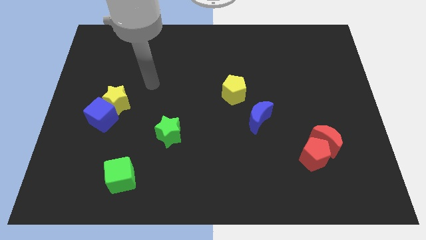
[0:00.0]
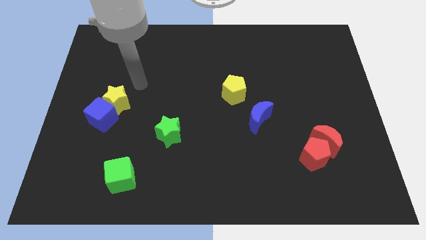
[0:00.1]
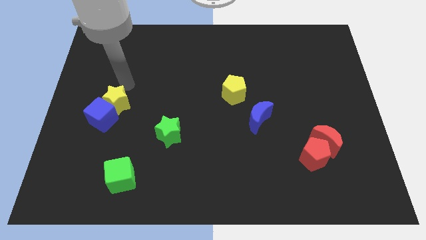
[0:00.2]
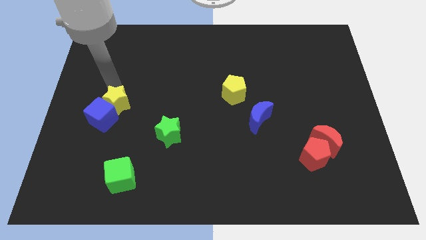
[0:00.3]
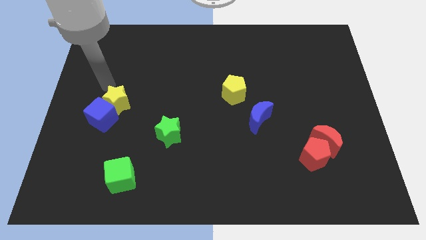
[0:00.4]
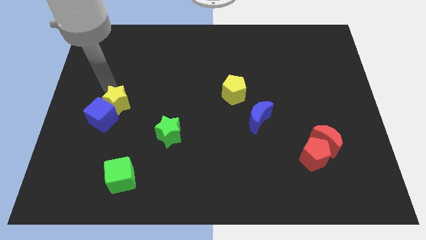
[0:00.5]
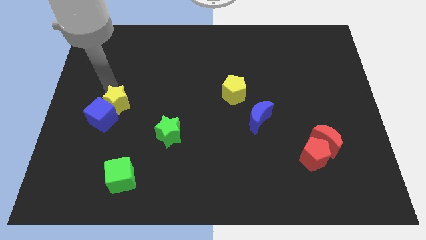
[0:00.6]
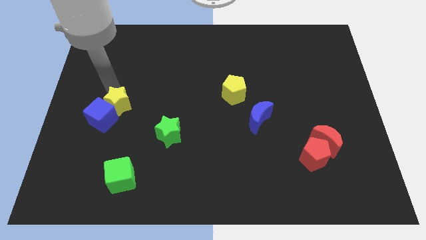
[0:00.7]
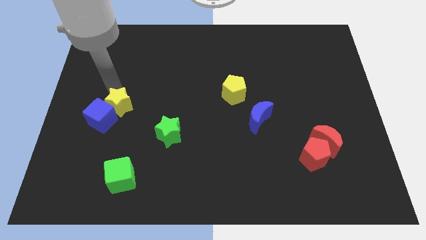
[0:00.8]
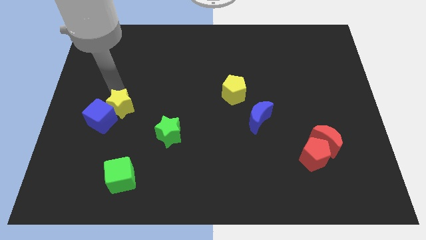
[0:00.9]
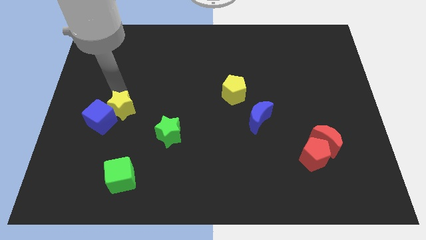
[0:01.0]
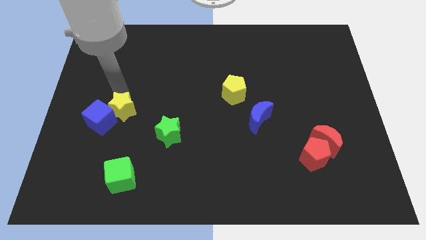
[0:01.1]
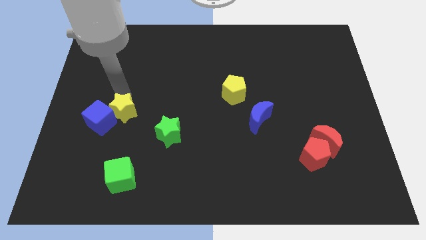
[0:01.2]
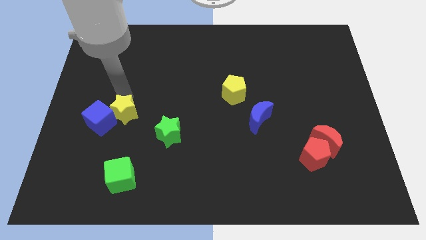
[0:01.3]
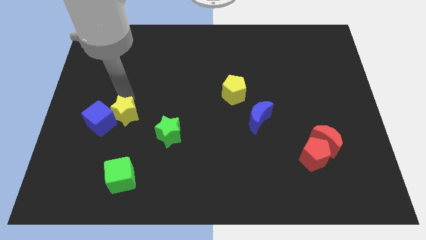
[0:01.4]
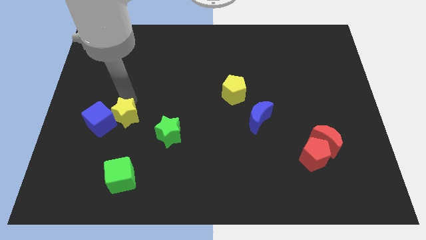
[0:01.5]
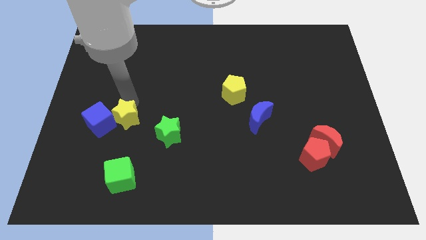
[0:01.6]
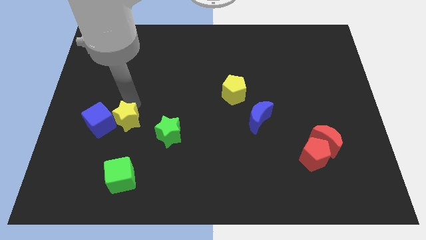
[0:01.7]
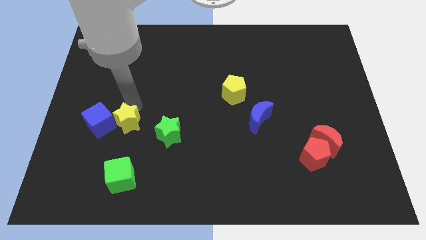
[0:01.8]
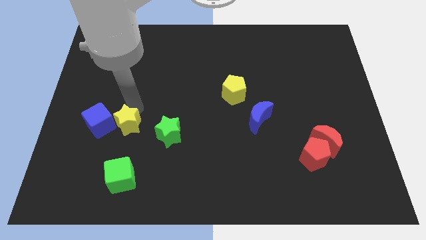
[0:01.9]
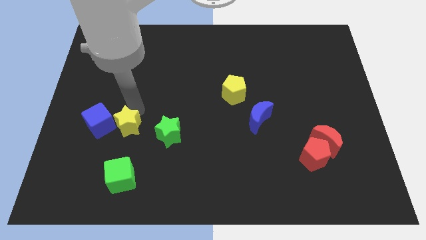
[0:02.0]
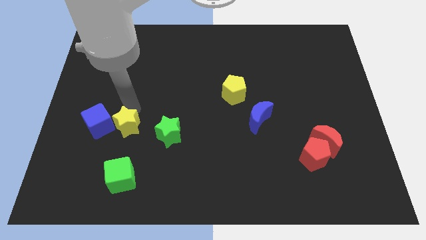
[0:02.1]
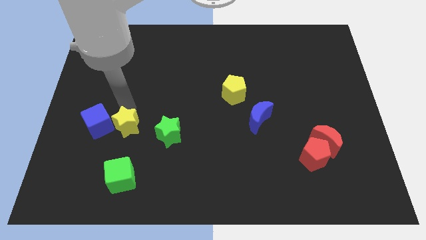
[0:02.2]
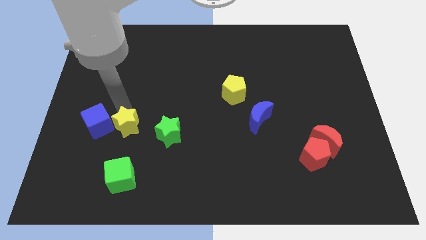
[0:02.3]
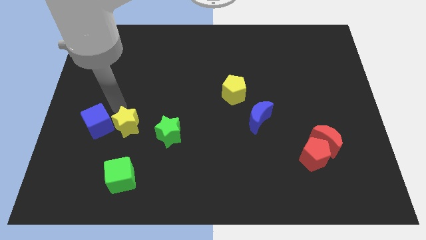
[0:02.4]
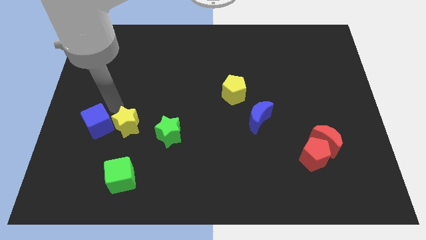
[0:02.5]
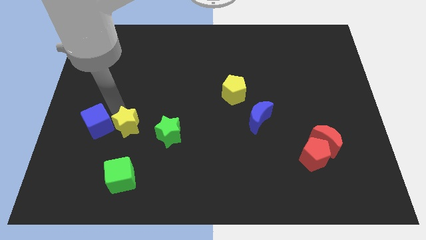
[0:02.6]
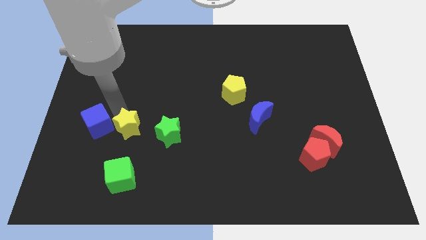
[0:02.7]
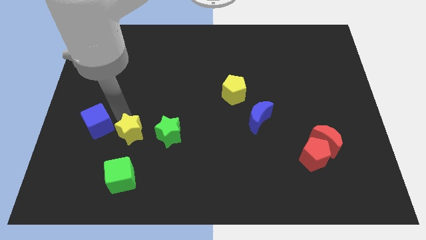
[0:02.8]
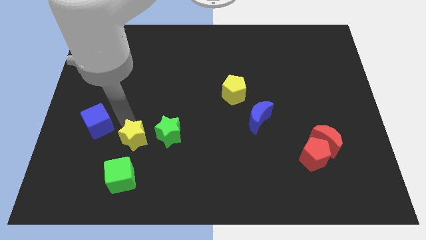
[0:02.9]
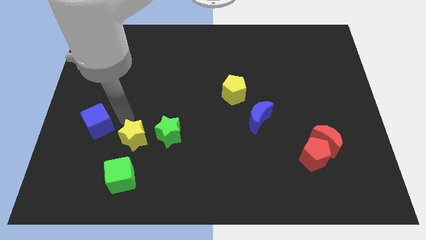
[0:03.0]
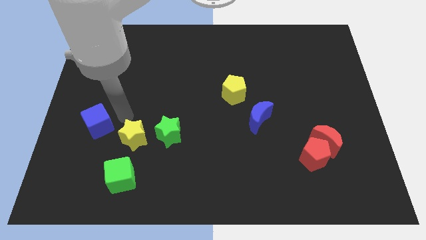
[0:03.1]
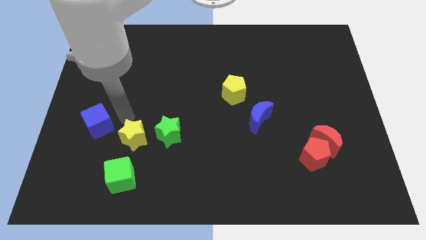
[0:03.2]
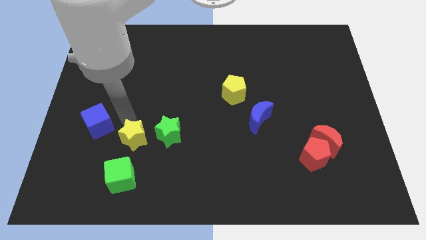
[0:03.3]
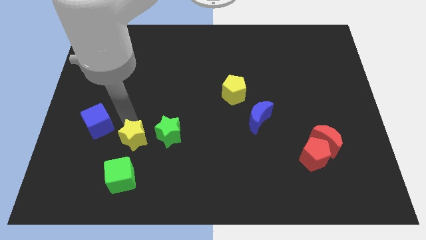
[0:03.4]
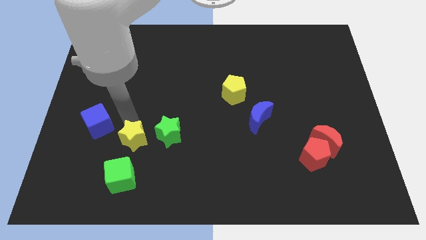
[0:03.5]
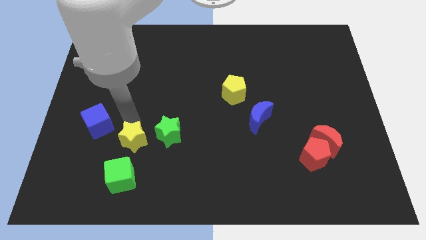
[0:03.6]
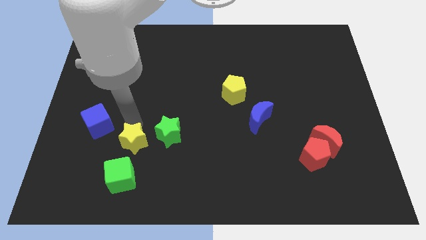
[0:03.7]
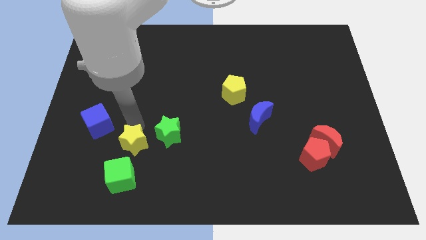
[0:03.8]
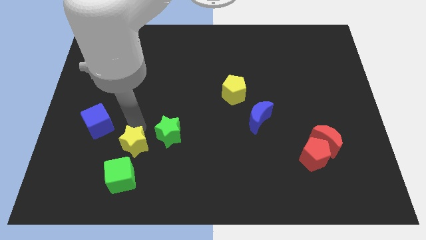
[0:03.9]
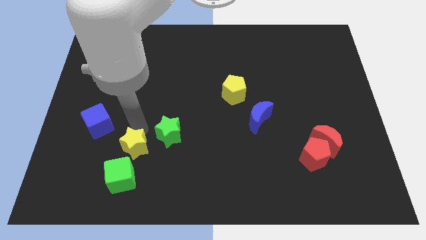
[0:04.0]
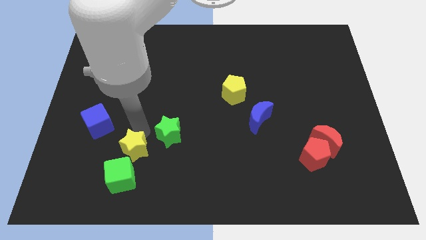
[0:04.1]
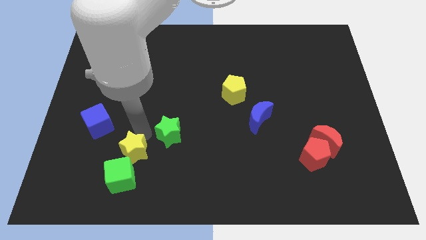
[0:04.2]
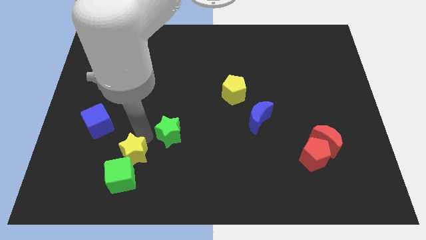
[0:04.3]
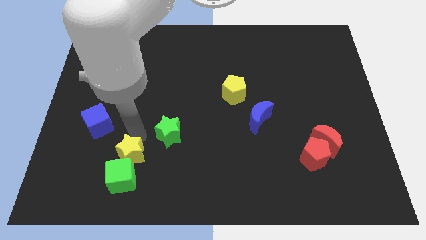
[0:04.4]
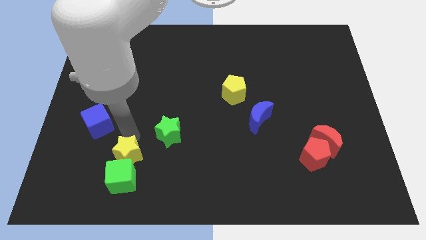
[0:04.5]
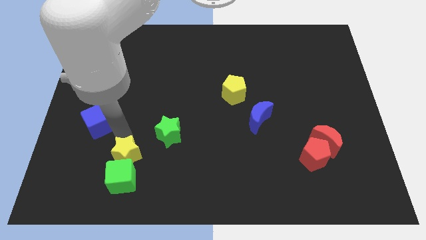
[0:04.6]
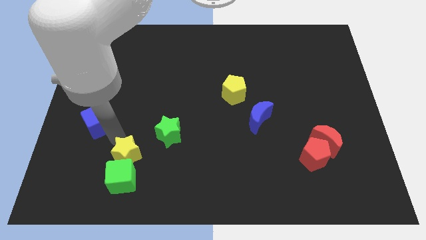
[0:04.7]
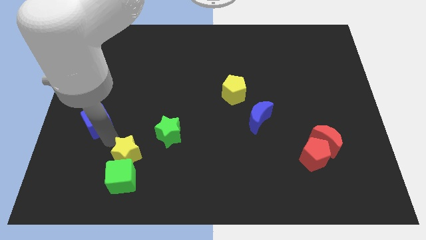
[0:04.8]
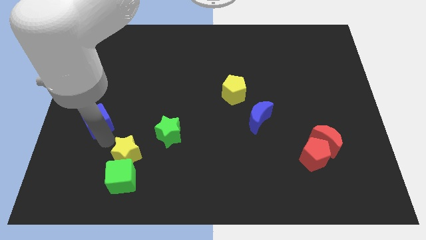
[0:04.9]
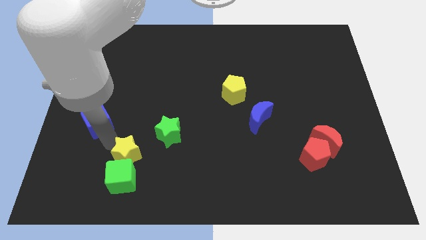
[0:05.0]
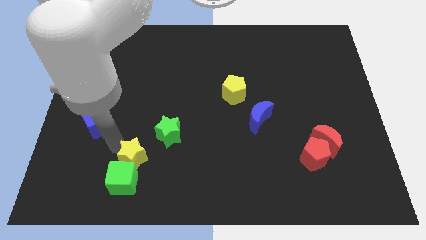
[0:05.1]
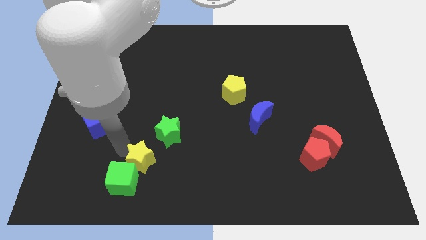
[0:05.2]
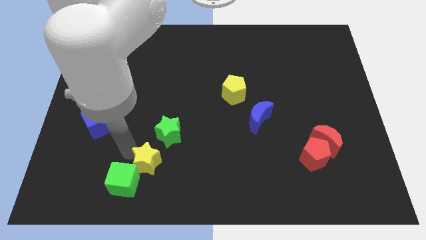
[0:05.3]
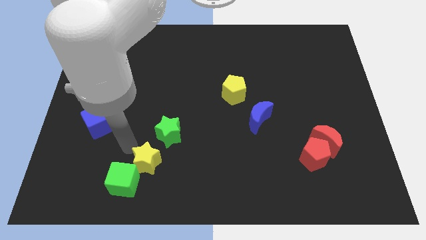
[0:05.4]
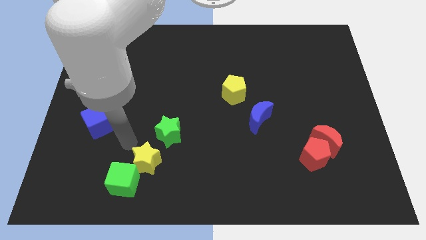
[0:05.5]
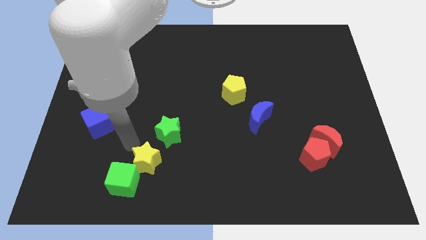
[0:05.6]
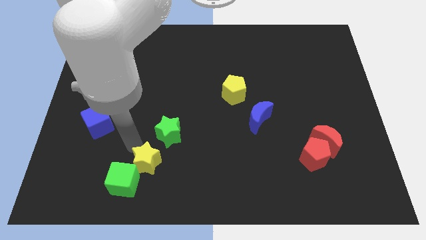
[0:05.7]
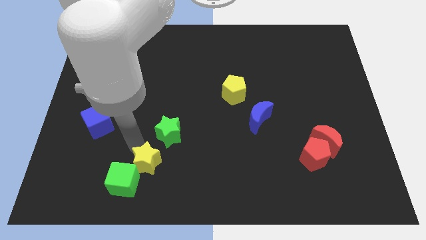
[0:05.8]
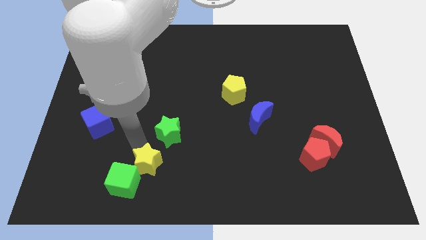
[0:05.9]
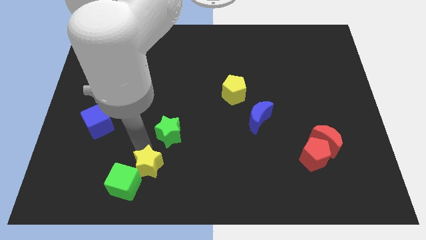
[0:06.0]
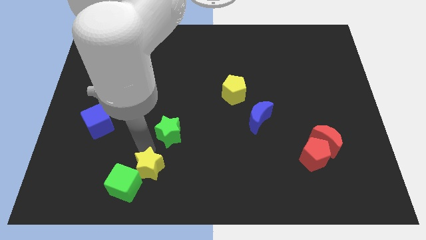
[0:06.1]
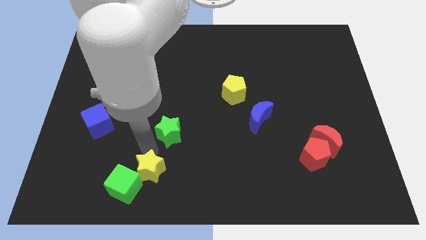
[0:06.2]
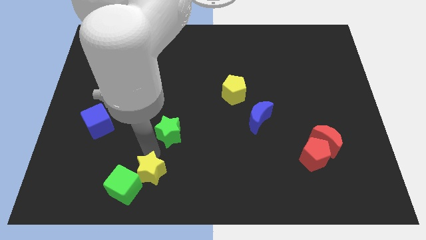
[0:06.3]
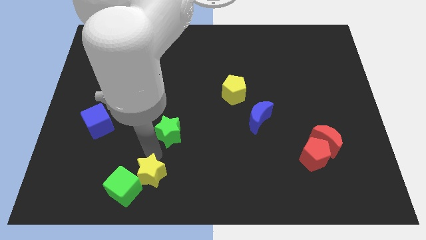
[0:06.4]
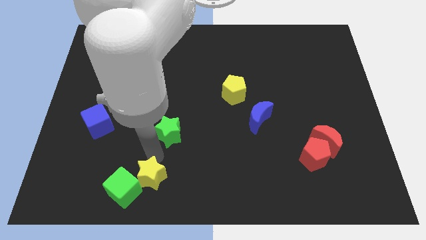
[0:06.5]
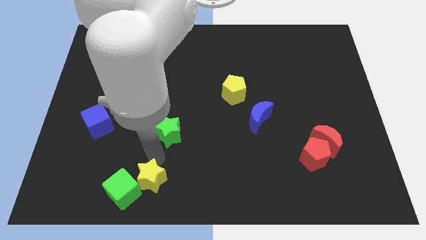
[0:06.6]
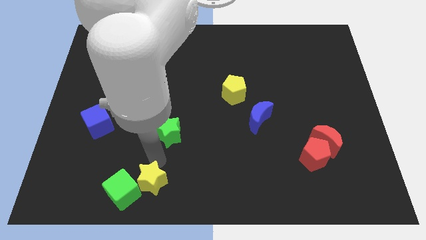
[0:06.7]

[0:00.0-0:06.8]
put the yellow star to the bottom
